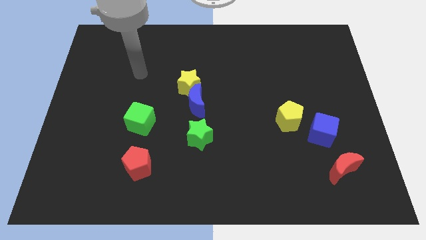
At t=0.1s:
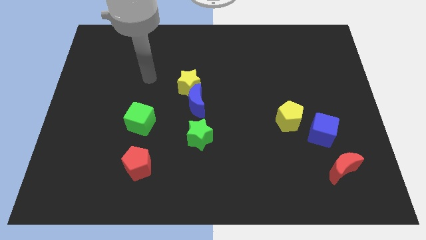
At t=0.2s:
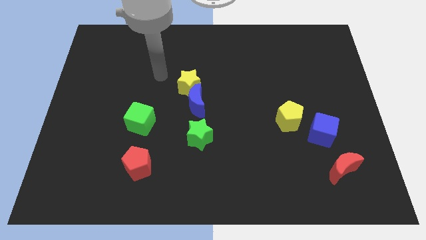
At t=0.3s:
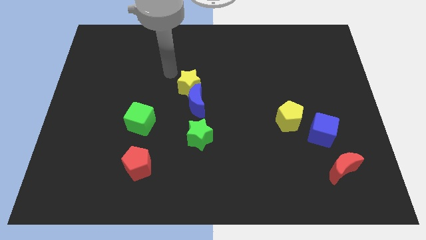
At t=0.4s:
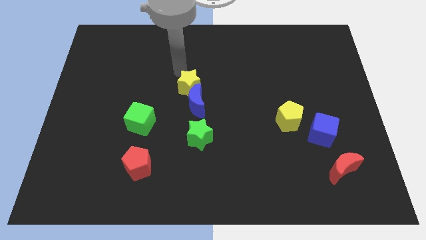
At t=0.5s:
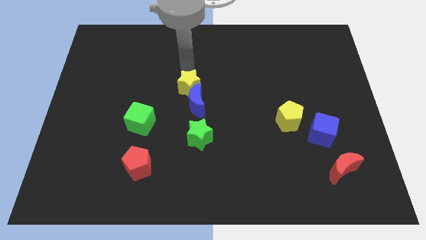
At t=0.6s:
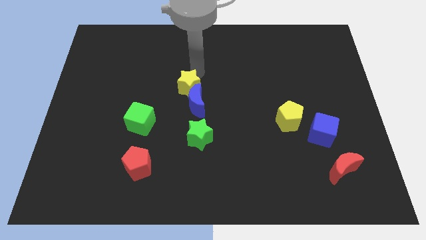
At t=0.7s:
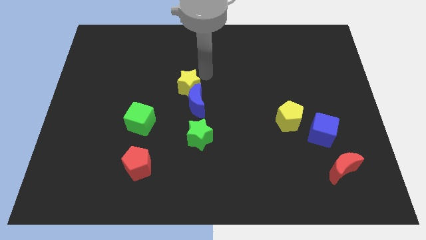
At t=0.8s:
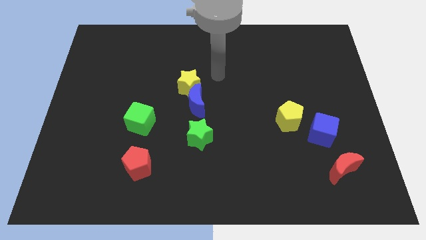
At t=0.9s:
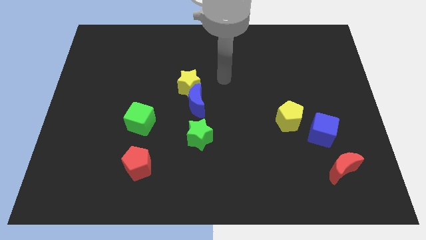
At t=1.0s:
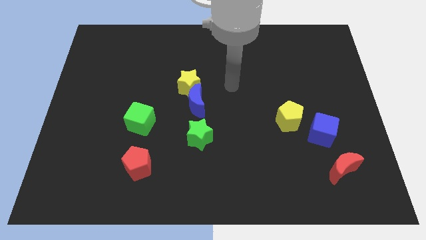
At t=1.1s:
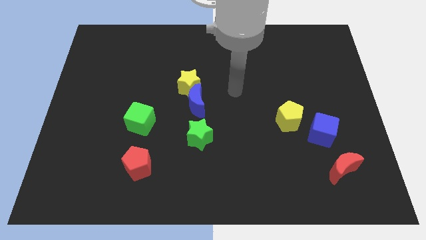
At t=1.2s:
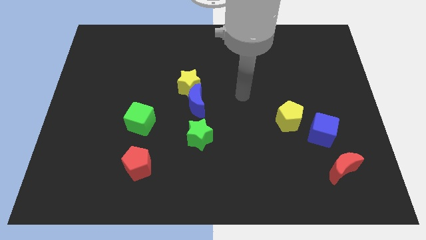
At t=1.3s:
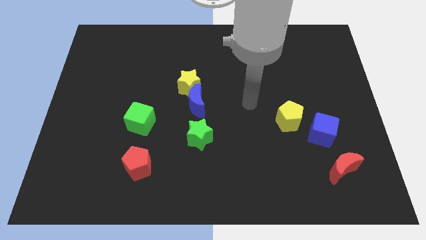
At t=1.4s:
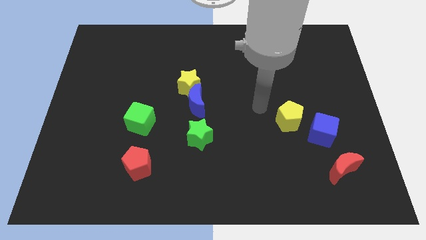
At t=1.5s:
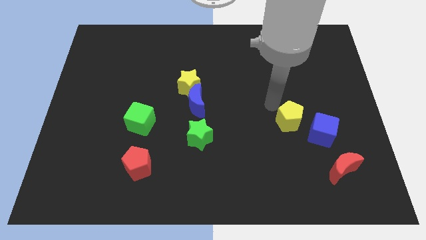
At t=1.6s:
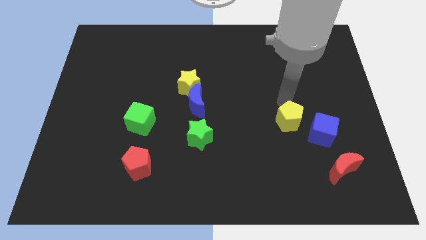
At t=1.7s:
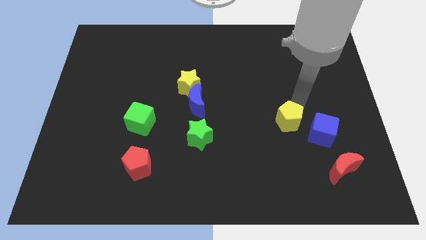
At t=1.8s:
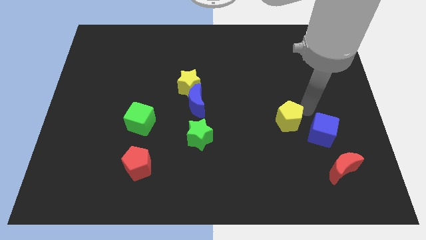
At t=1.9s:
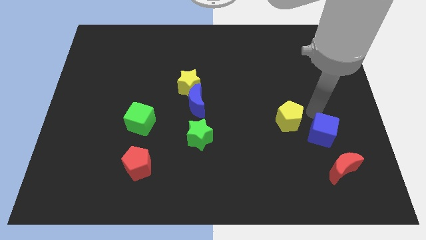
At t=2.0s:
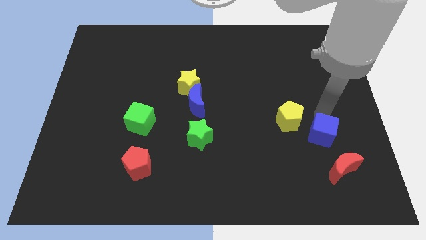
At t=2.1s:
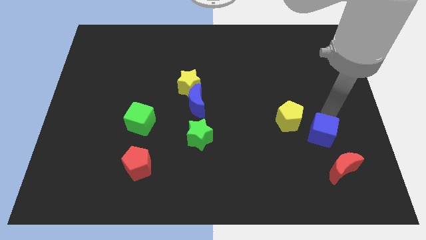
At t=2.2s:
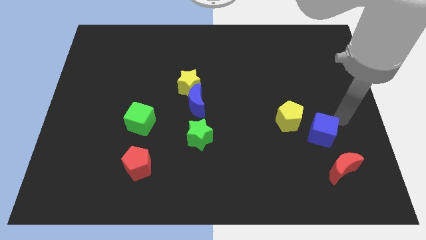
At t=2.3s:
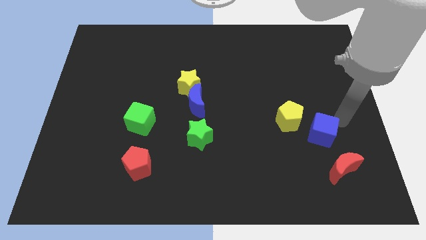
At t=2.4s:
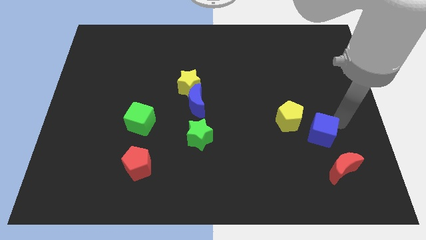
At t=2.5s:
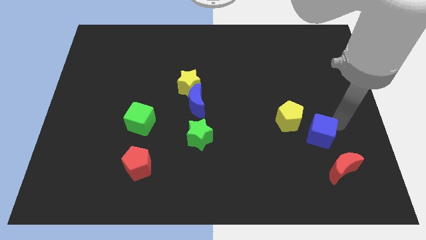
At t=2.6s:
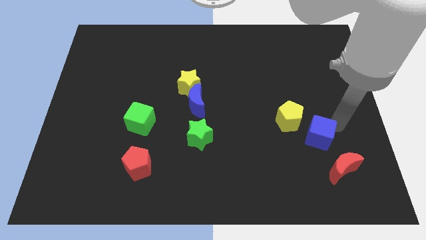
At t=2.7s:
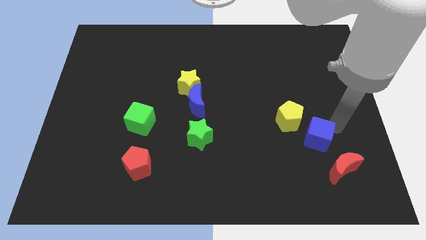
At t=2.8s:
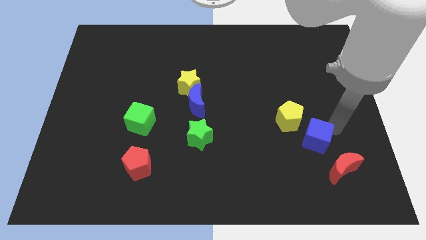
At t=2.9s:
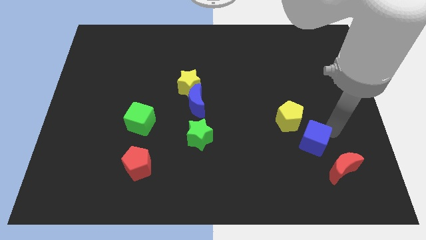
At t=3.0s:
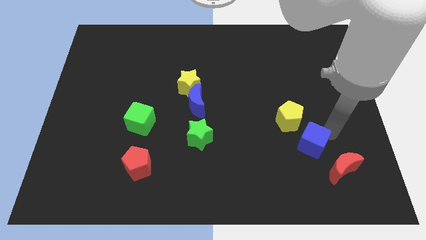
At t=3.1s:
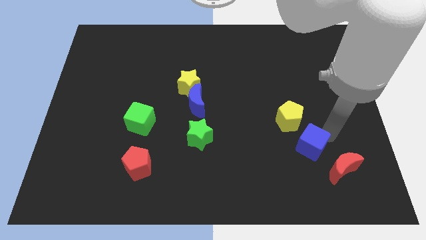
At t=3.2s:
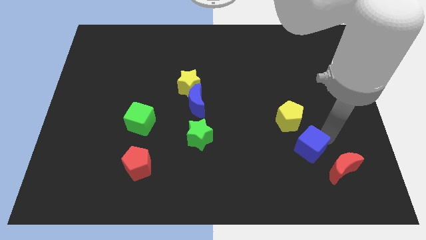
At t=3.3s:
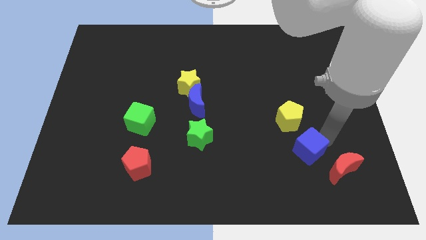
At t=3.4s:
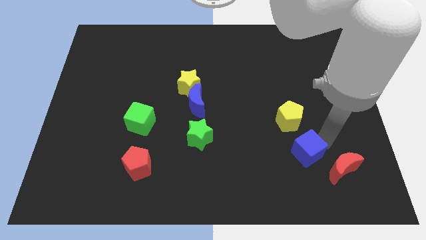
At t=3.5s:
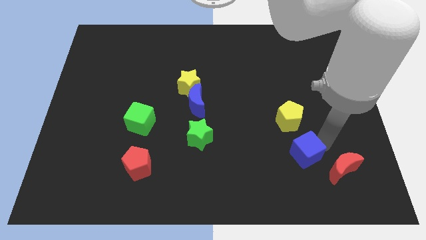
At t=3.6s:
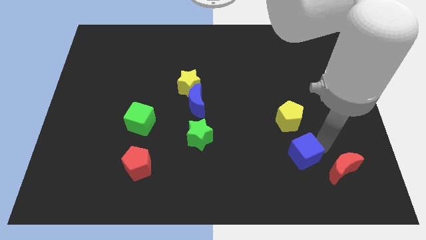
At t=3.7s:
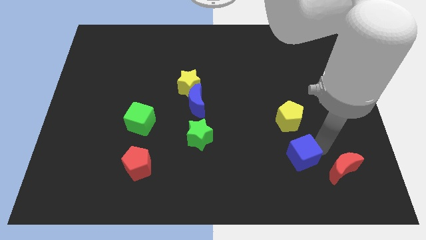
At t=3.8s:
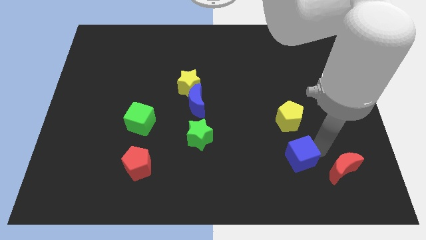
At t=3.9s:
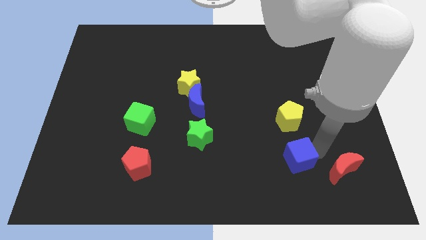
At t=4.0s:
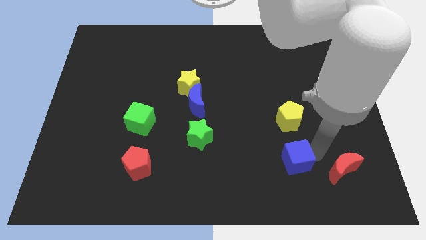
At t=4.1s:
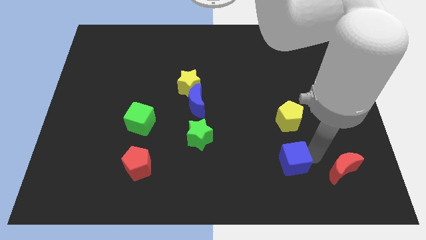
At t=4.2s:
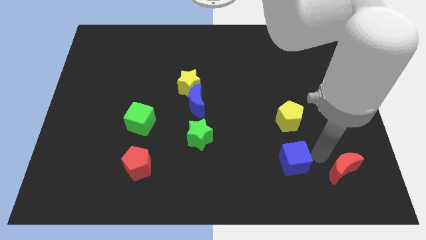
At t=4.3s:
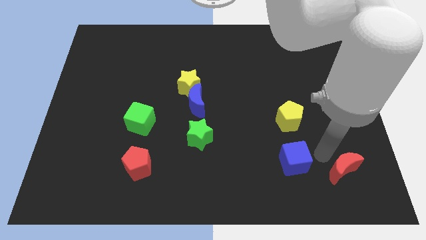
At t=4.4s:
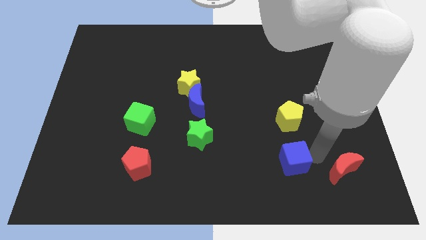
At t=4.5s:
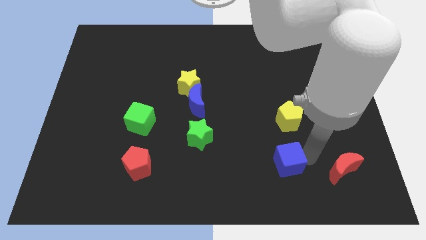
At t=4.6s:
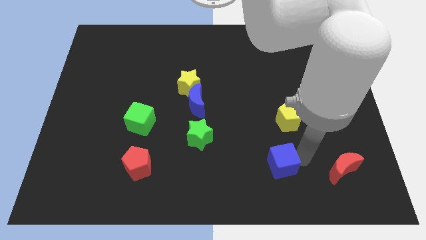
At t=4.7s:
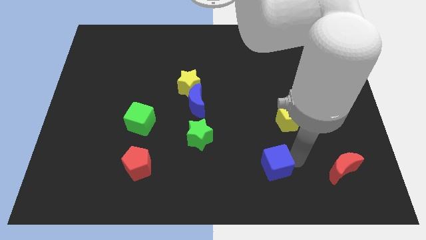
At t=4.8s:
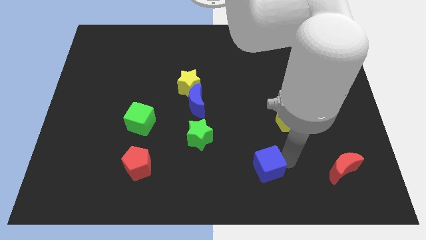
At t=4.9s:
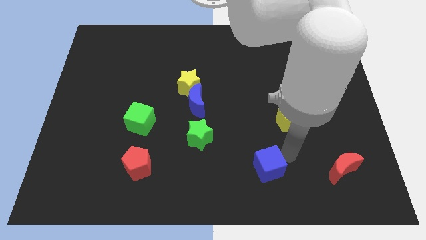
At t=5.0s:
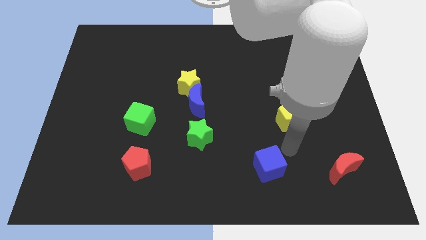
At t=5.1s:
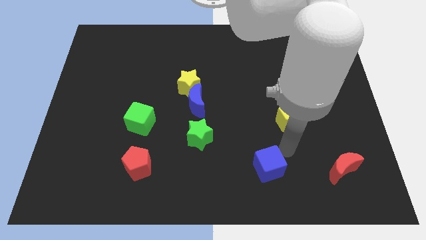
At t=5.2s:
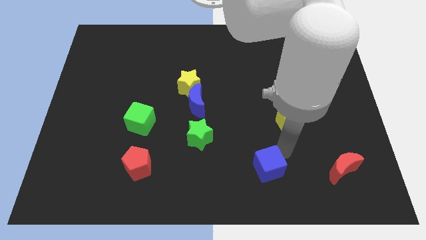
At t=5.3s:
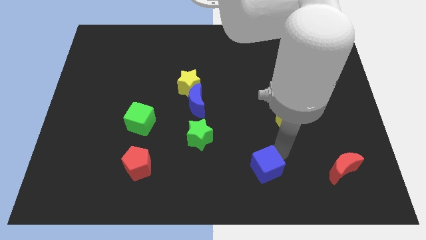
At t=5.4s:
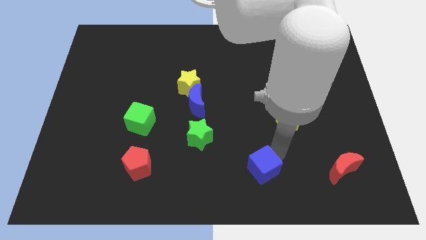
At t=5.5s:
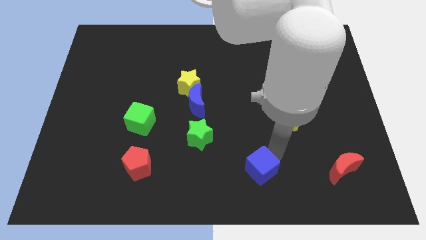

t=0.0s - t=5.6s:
move the blue cube to the bottom

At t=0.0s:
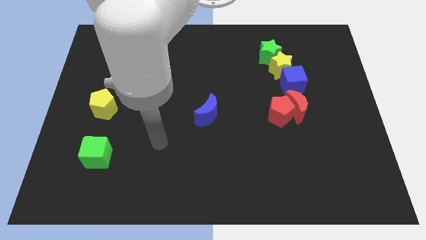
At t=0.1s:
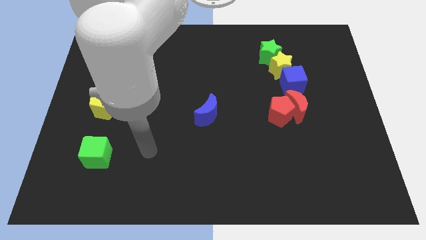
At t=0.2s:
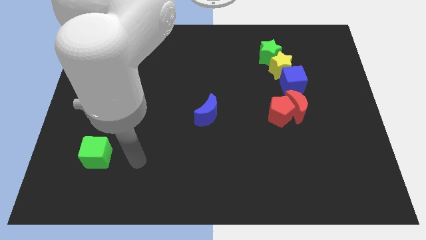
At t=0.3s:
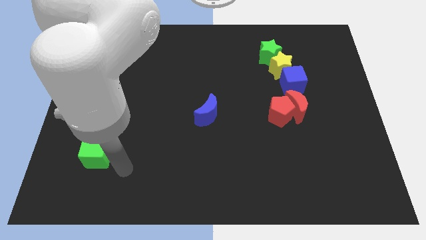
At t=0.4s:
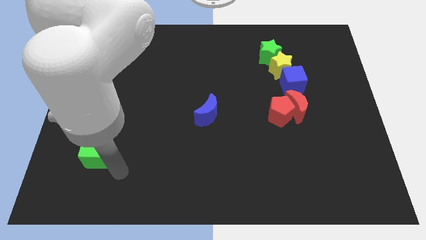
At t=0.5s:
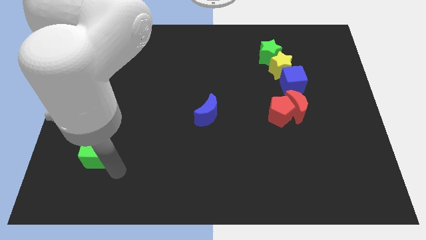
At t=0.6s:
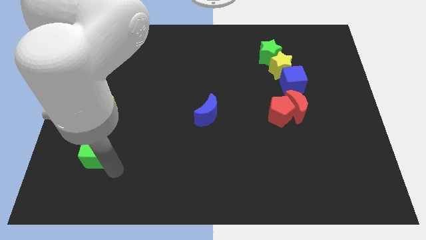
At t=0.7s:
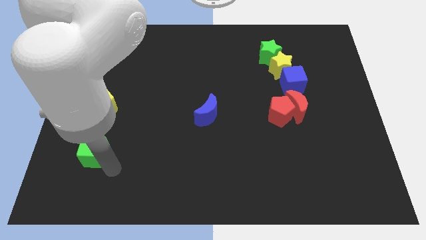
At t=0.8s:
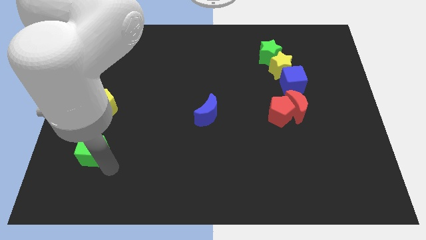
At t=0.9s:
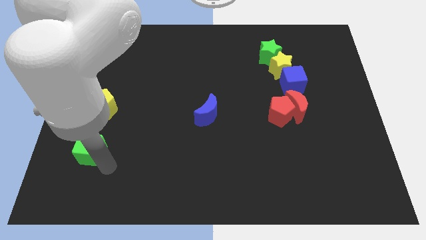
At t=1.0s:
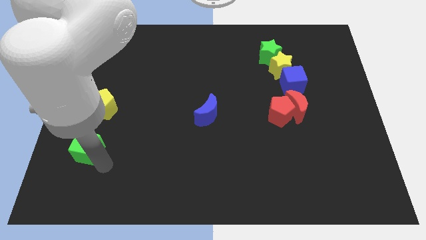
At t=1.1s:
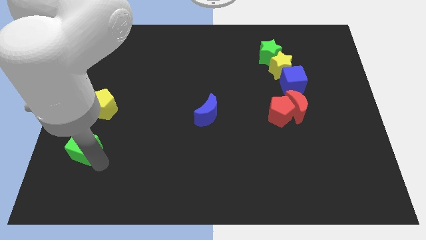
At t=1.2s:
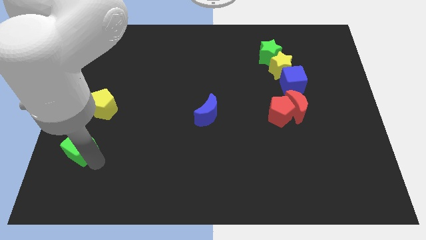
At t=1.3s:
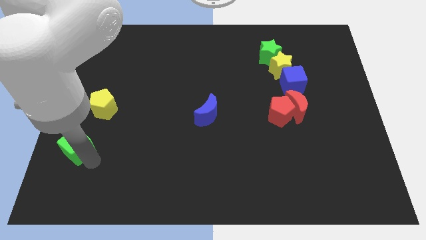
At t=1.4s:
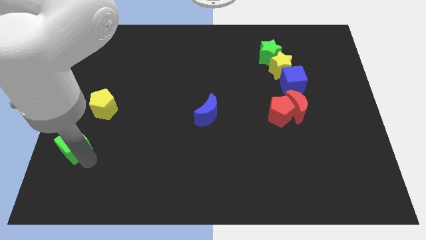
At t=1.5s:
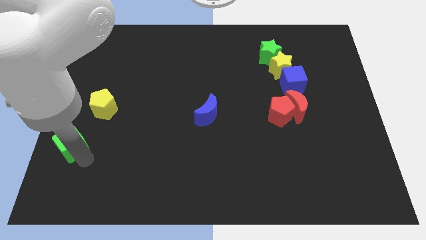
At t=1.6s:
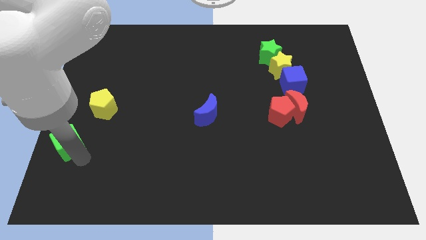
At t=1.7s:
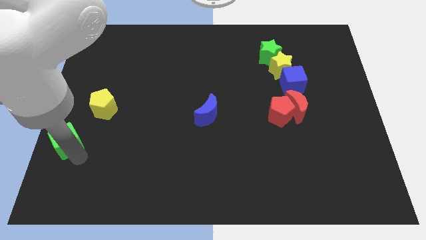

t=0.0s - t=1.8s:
move the green cube to the center left
